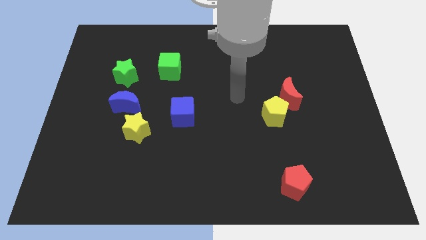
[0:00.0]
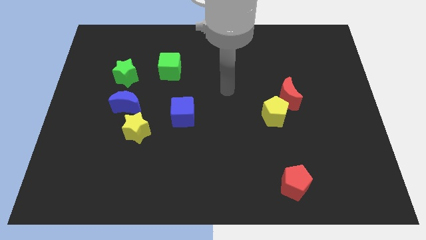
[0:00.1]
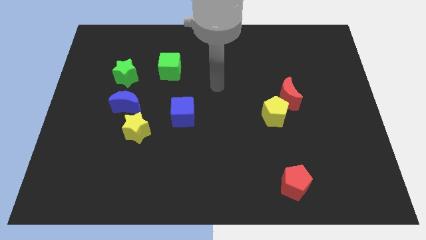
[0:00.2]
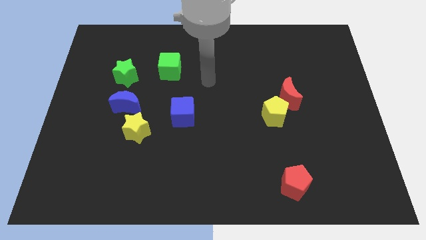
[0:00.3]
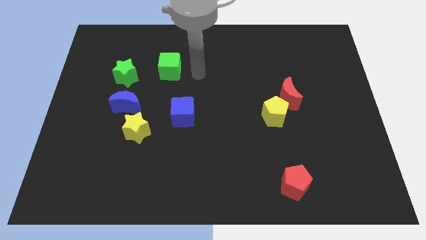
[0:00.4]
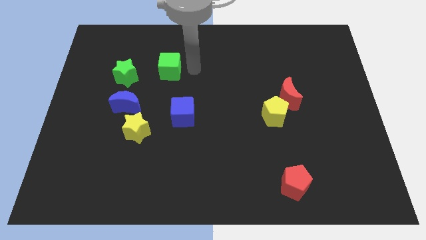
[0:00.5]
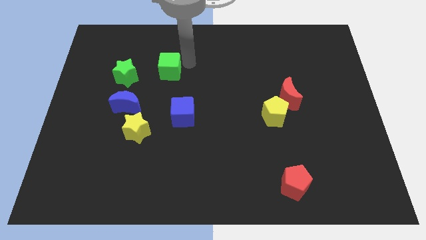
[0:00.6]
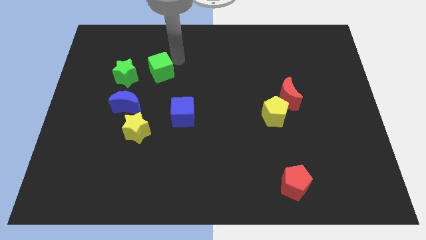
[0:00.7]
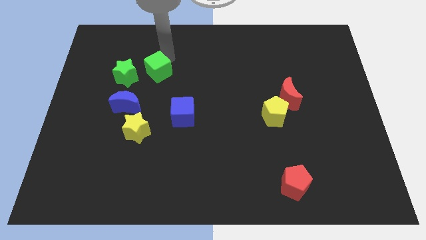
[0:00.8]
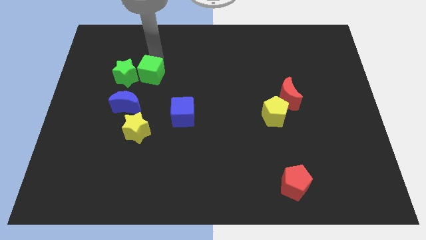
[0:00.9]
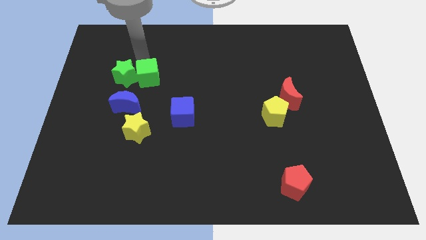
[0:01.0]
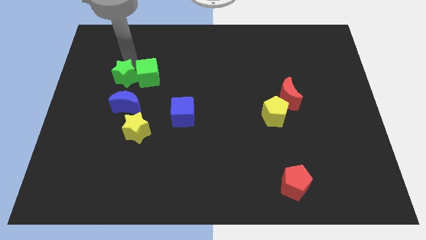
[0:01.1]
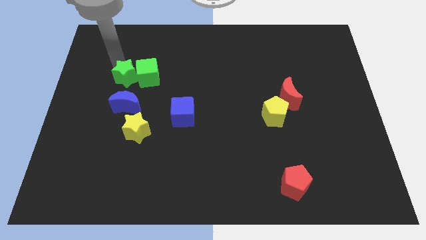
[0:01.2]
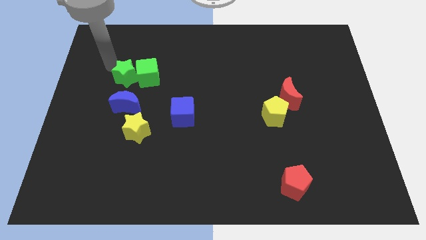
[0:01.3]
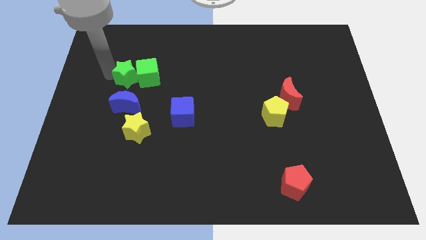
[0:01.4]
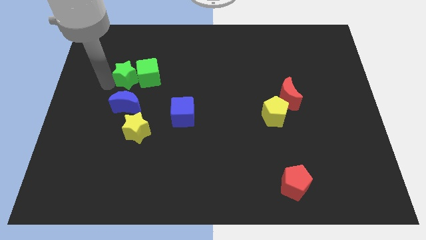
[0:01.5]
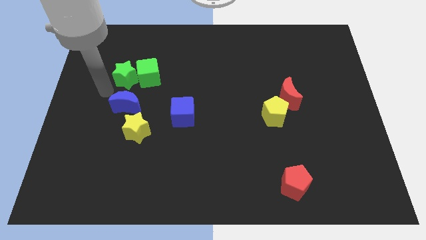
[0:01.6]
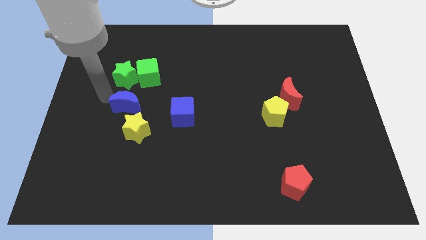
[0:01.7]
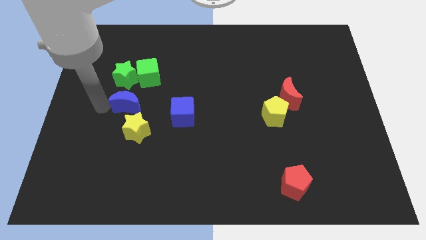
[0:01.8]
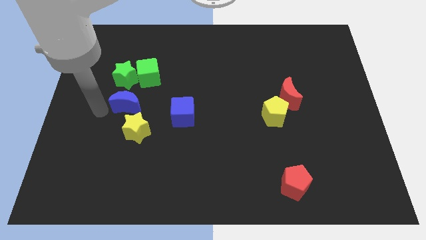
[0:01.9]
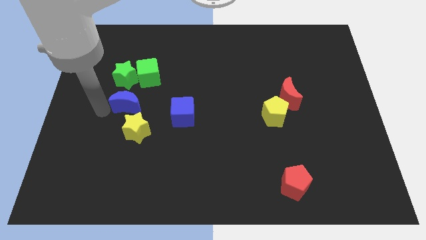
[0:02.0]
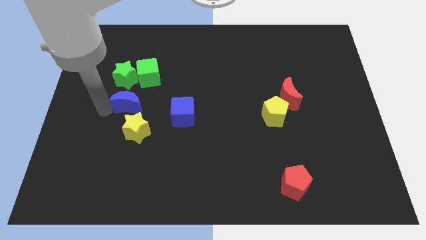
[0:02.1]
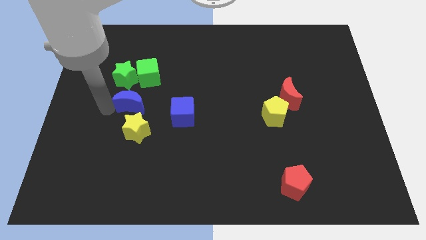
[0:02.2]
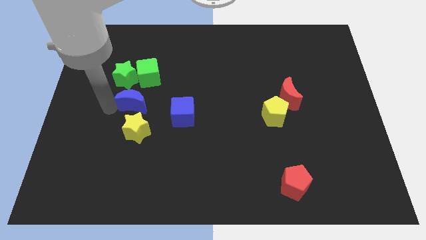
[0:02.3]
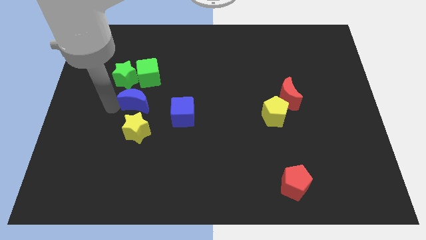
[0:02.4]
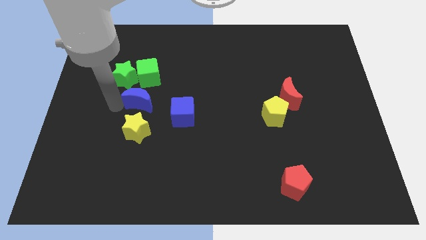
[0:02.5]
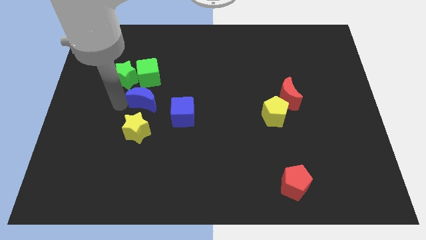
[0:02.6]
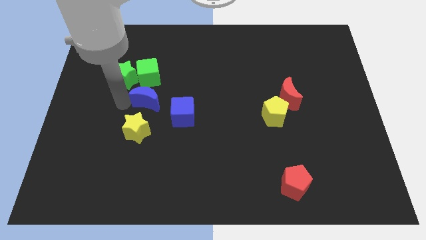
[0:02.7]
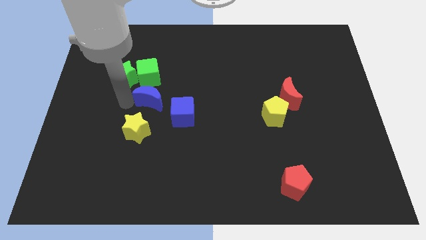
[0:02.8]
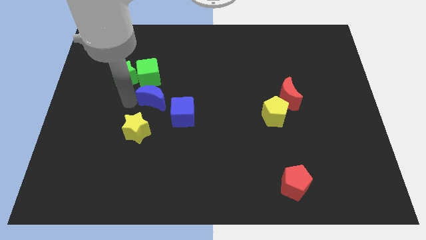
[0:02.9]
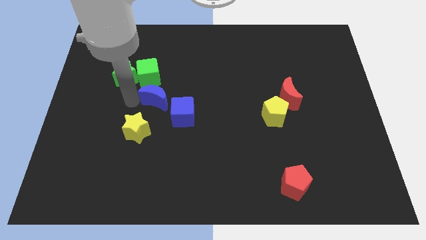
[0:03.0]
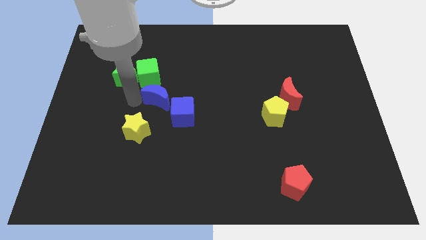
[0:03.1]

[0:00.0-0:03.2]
slide the blue moon a little bit right

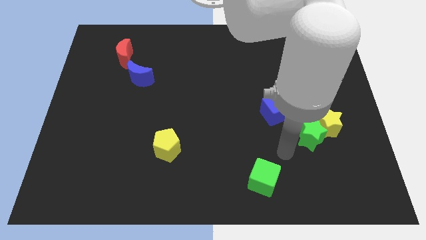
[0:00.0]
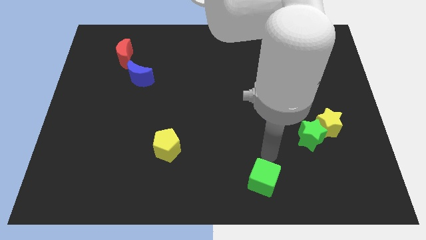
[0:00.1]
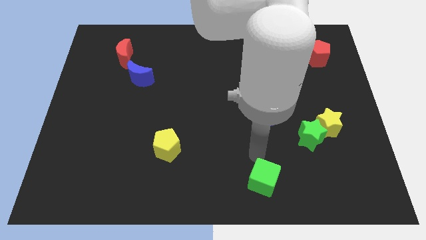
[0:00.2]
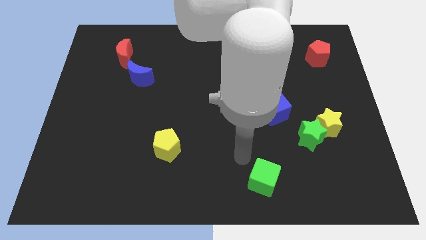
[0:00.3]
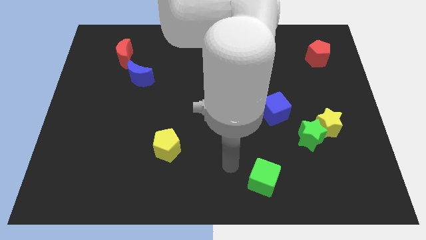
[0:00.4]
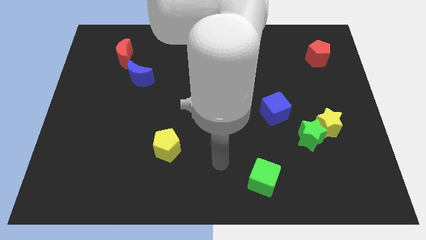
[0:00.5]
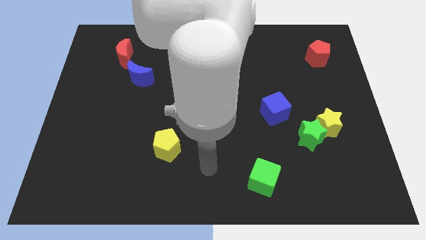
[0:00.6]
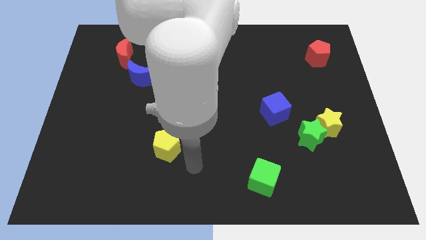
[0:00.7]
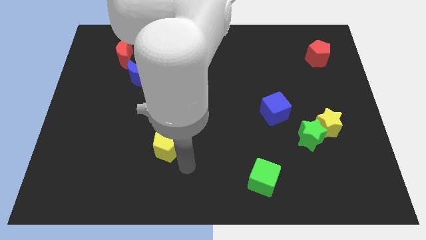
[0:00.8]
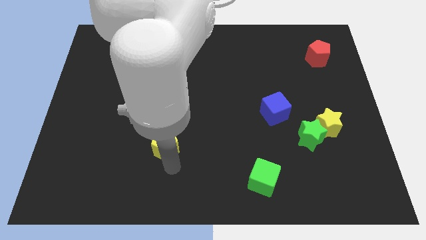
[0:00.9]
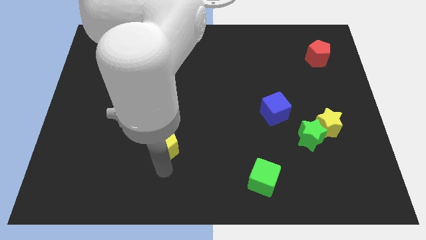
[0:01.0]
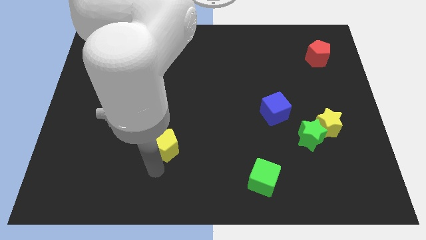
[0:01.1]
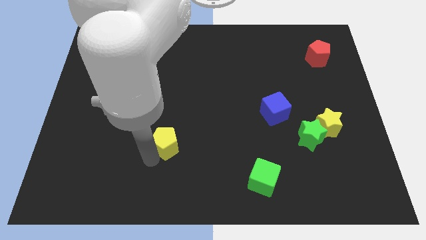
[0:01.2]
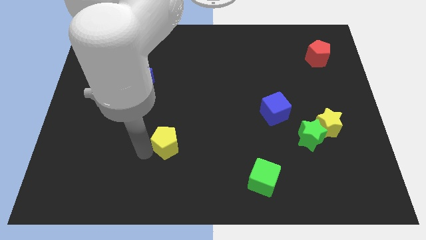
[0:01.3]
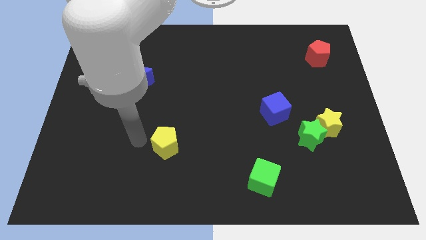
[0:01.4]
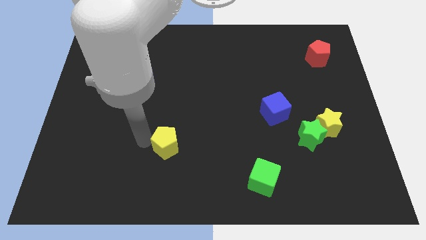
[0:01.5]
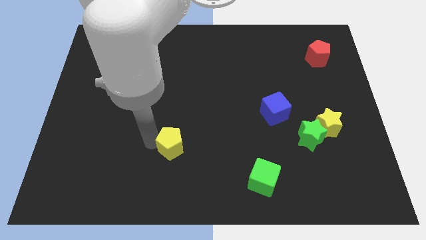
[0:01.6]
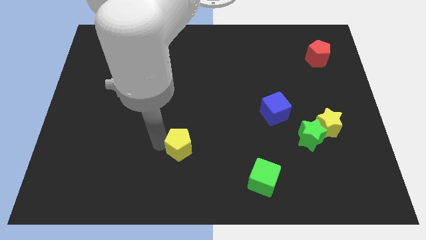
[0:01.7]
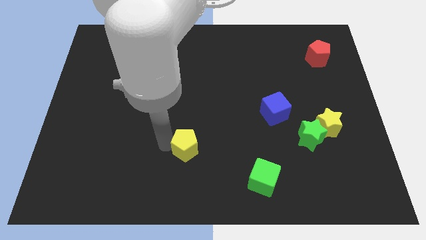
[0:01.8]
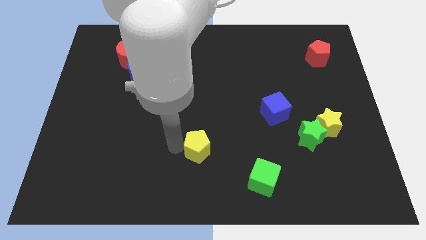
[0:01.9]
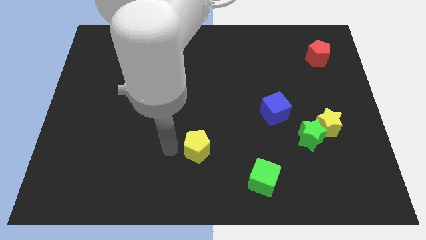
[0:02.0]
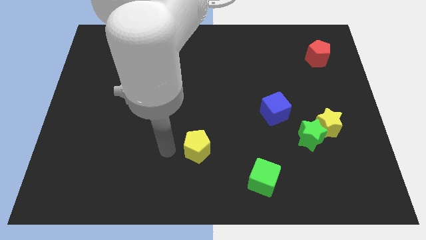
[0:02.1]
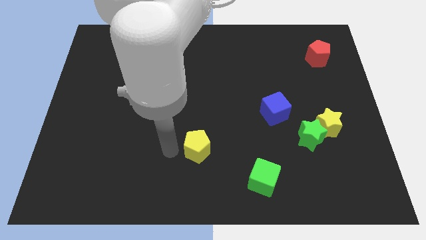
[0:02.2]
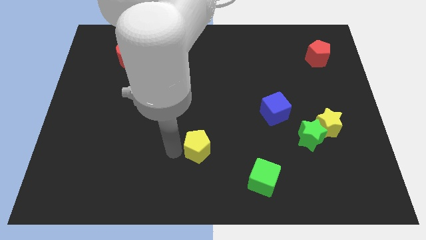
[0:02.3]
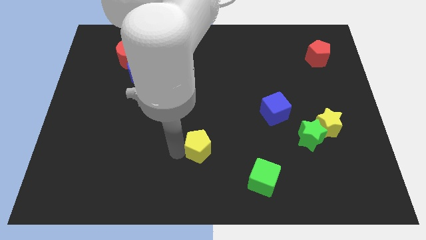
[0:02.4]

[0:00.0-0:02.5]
slide the yellow pentagon right somewhat

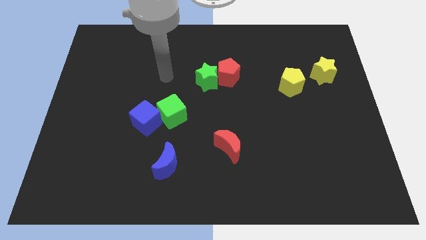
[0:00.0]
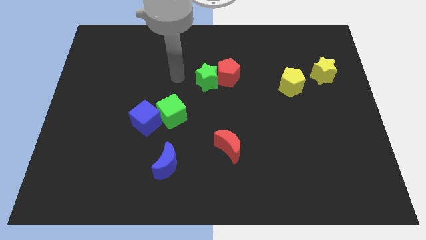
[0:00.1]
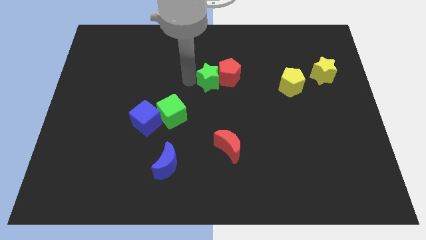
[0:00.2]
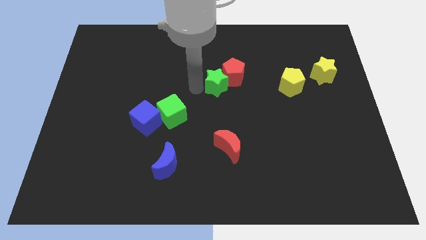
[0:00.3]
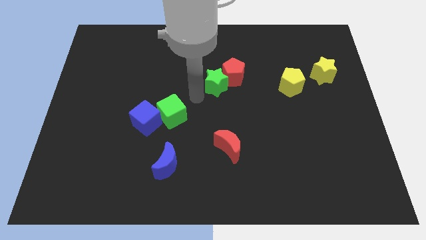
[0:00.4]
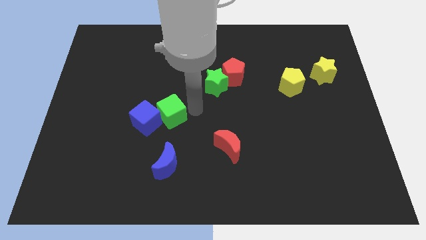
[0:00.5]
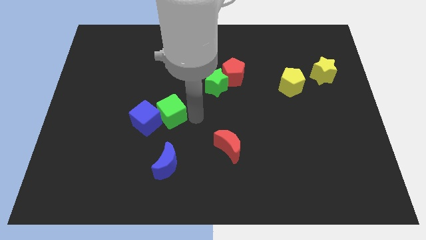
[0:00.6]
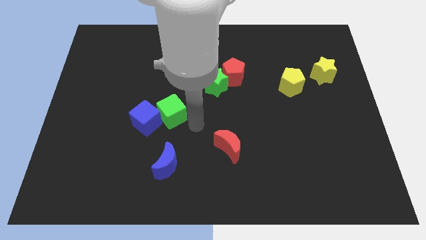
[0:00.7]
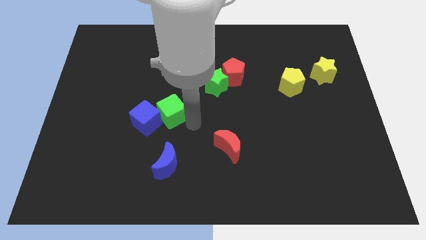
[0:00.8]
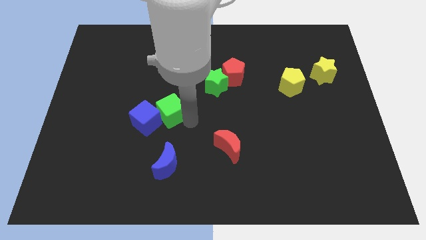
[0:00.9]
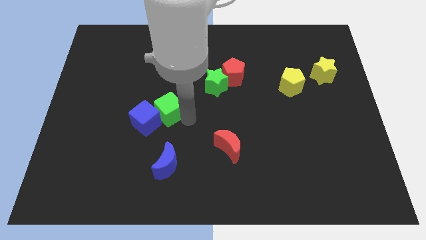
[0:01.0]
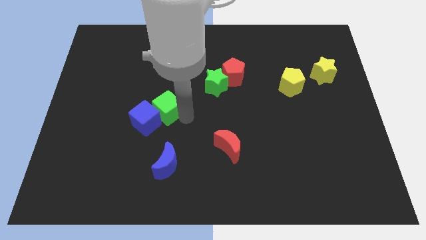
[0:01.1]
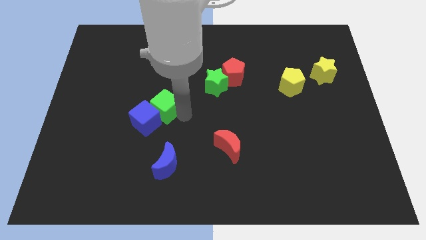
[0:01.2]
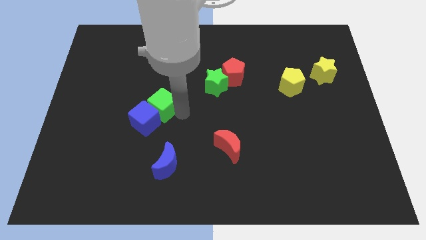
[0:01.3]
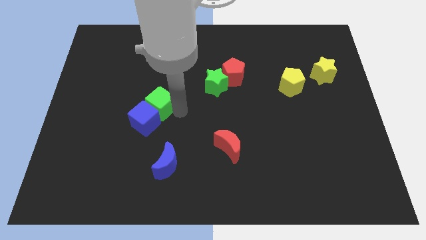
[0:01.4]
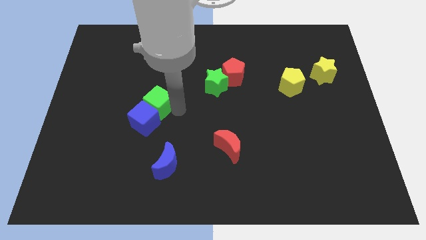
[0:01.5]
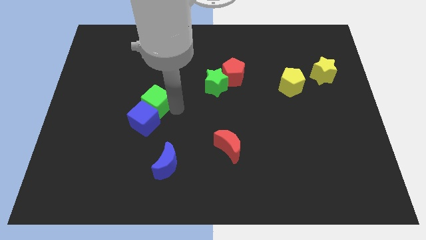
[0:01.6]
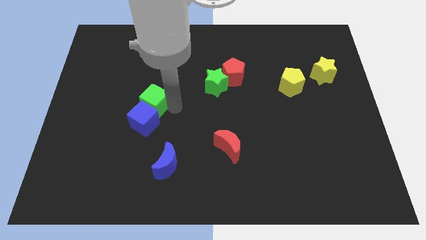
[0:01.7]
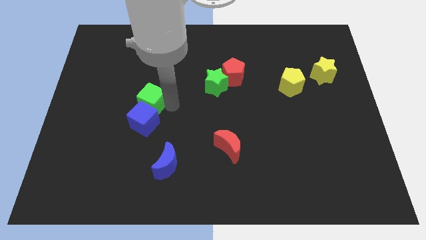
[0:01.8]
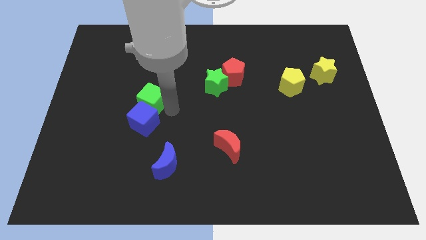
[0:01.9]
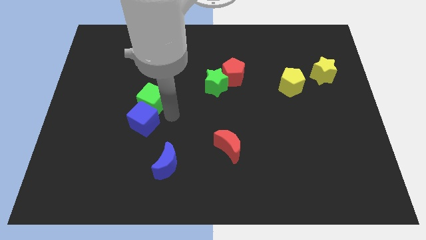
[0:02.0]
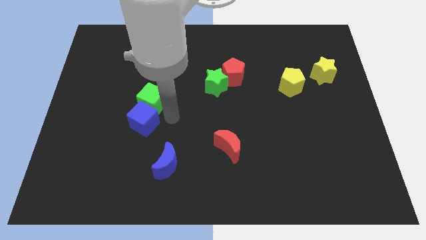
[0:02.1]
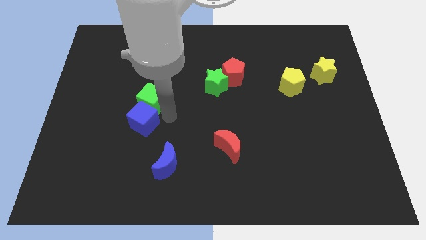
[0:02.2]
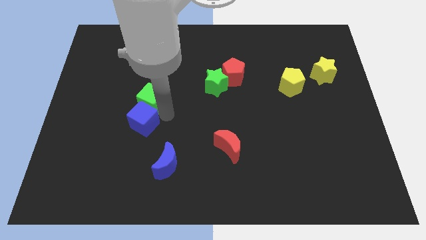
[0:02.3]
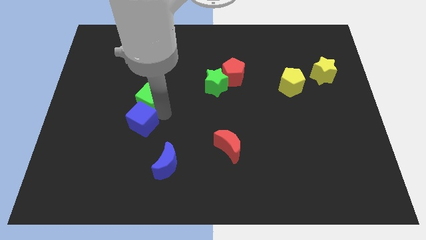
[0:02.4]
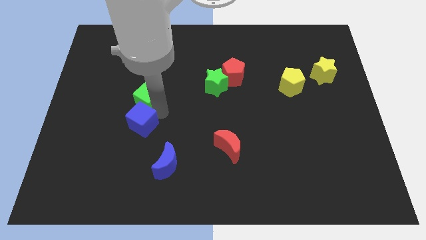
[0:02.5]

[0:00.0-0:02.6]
slide the green cube a little upwards and then left
